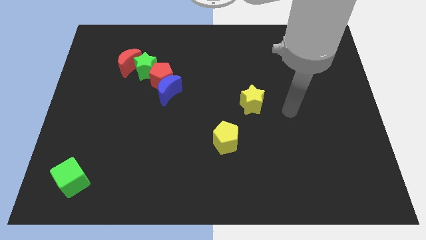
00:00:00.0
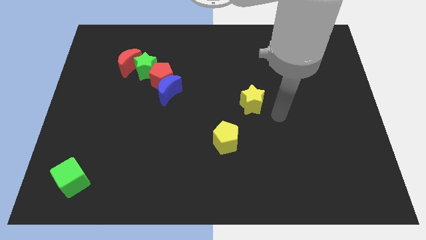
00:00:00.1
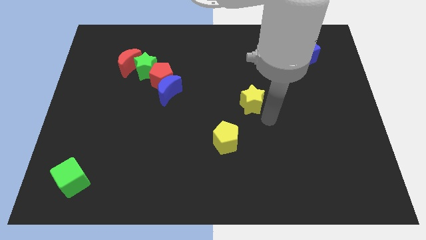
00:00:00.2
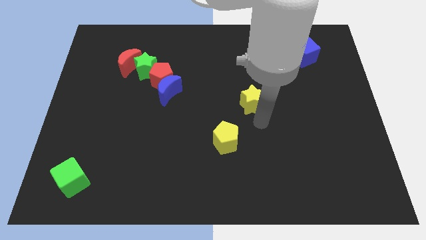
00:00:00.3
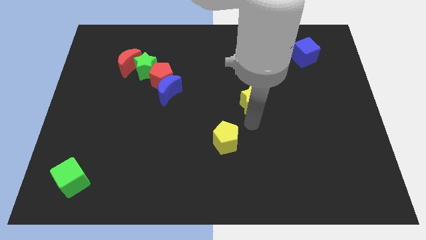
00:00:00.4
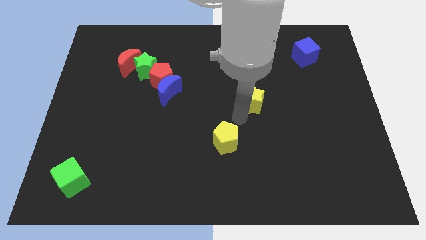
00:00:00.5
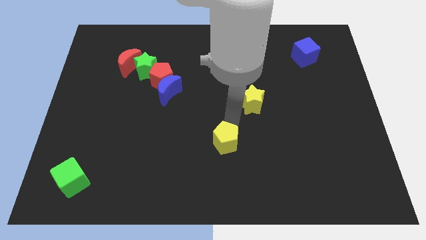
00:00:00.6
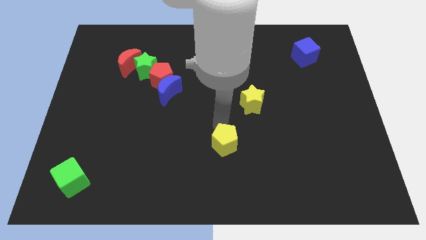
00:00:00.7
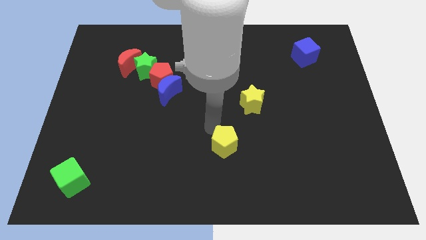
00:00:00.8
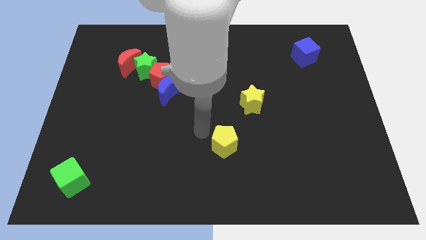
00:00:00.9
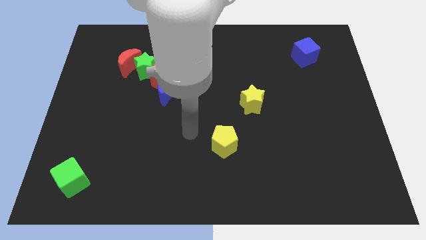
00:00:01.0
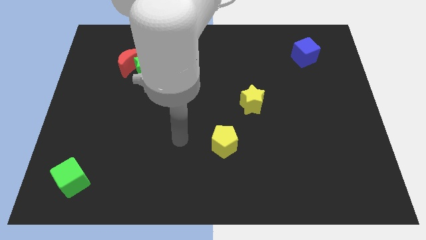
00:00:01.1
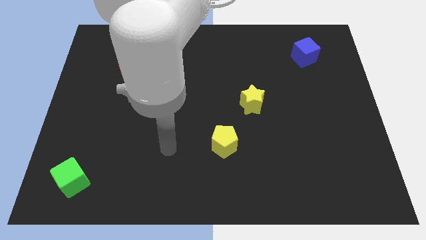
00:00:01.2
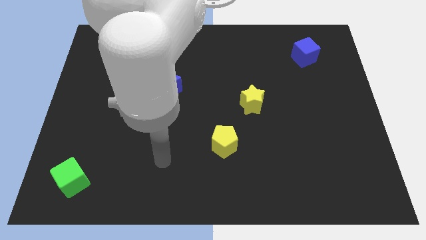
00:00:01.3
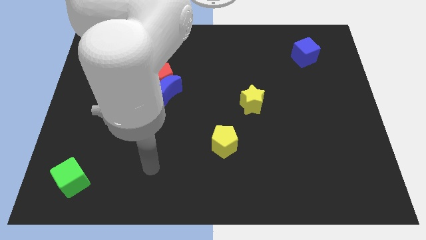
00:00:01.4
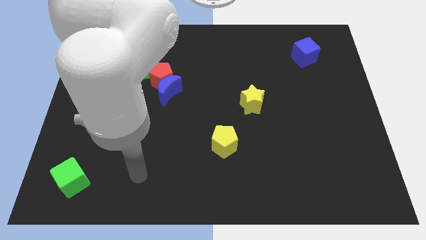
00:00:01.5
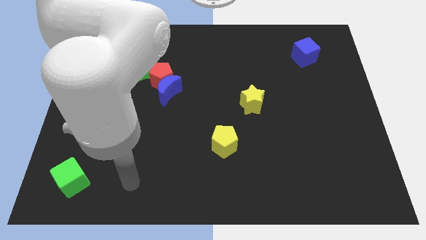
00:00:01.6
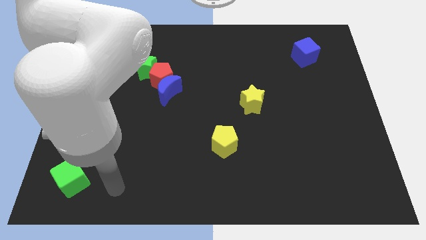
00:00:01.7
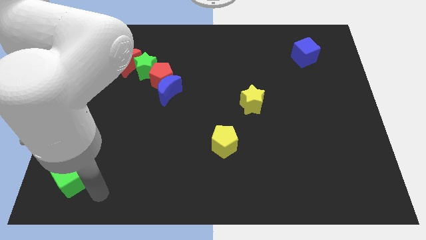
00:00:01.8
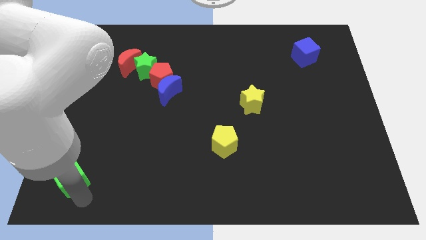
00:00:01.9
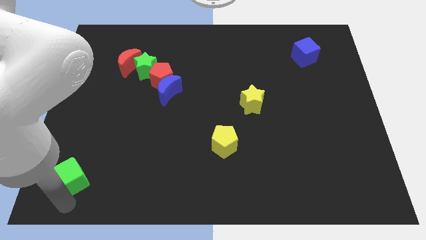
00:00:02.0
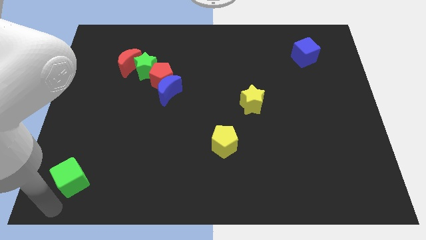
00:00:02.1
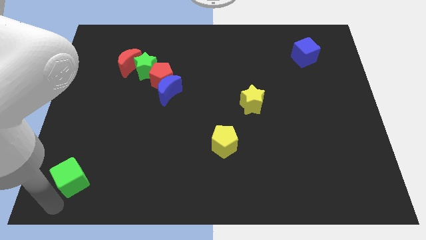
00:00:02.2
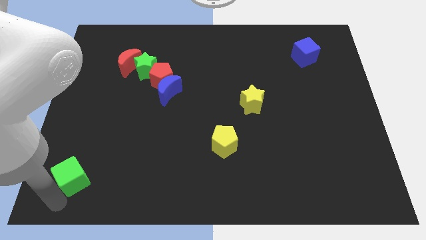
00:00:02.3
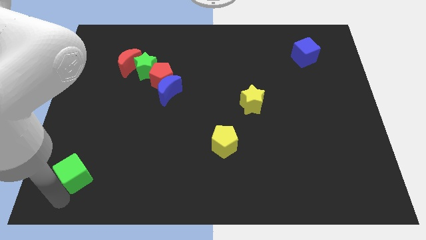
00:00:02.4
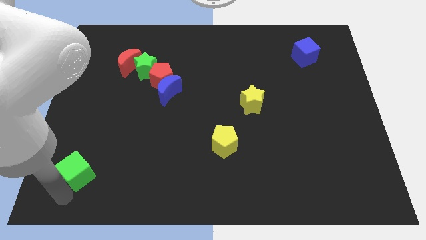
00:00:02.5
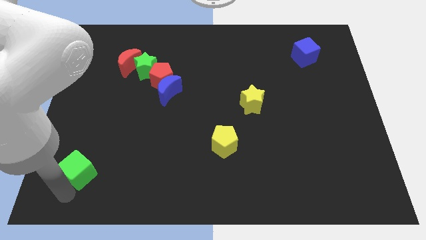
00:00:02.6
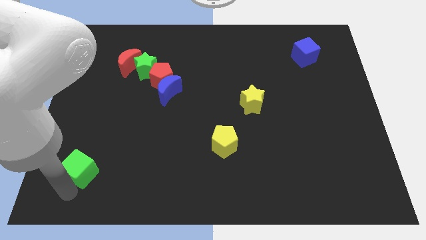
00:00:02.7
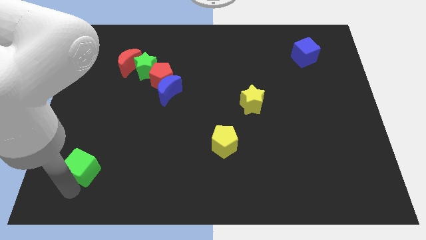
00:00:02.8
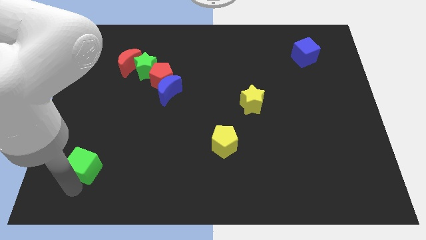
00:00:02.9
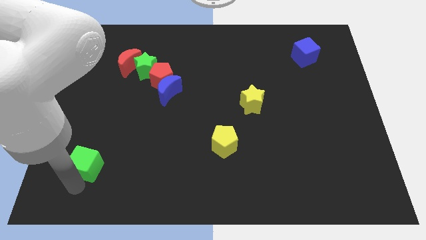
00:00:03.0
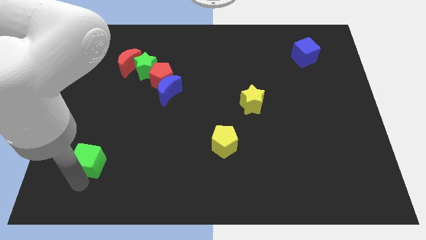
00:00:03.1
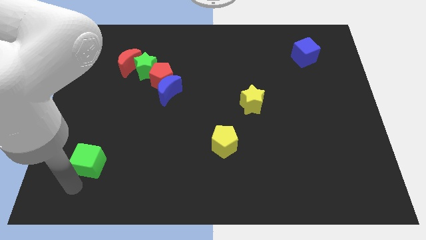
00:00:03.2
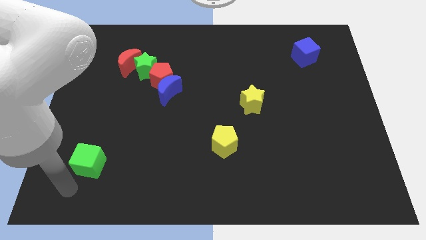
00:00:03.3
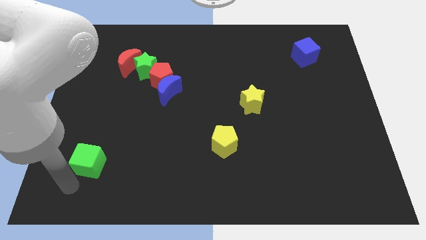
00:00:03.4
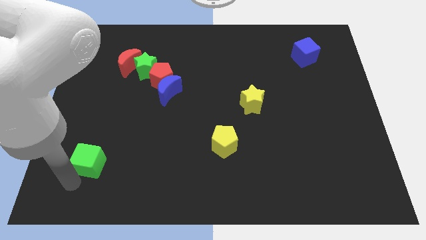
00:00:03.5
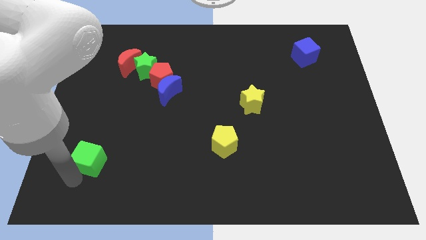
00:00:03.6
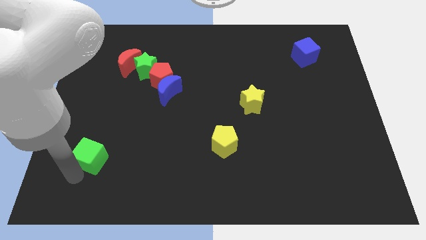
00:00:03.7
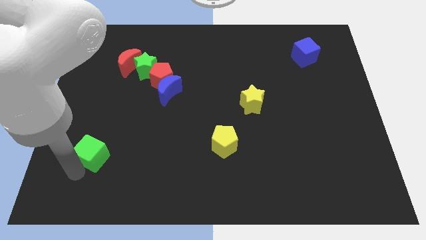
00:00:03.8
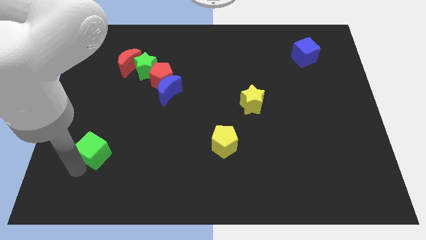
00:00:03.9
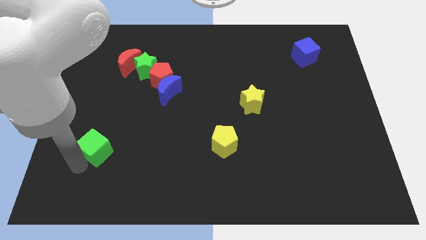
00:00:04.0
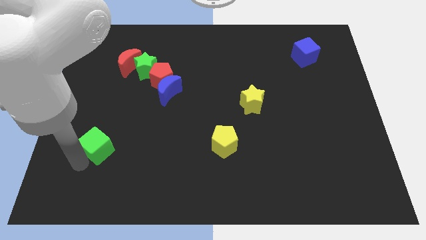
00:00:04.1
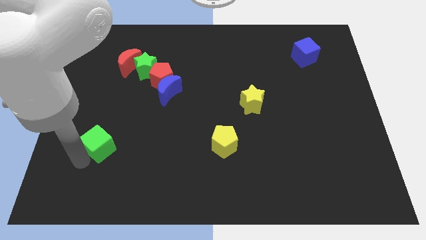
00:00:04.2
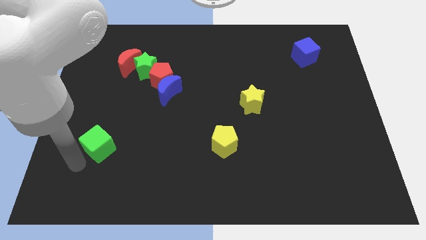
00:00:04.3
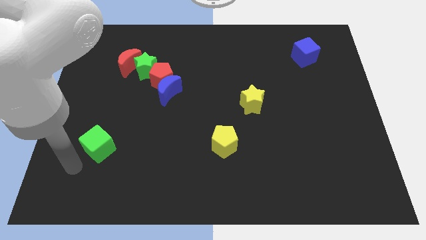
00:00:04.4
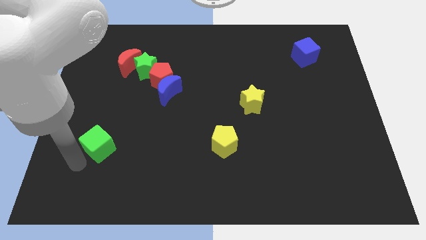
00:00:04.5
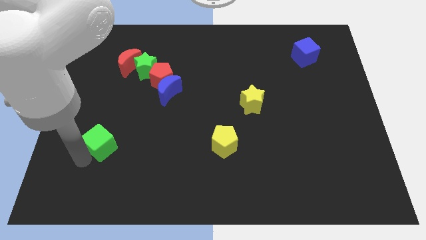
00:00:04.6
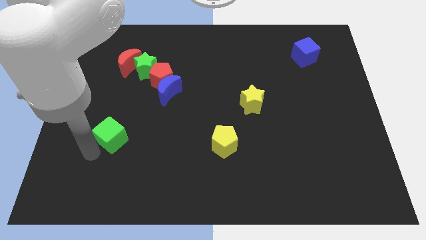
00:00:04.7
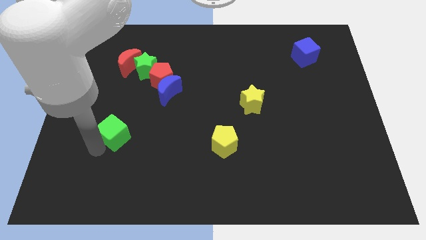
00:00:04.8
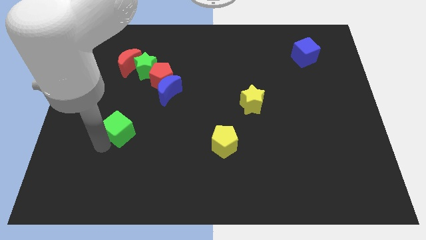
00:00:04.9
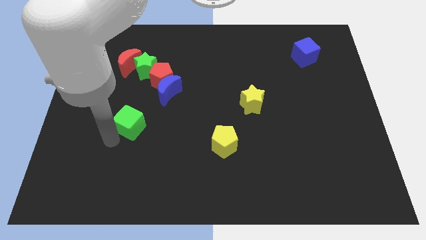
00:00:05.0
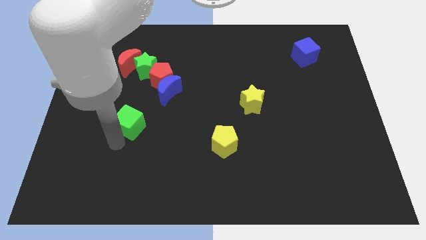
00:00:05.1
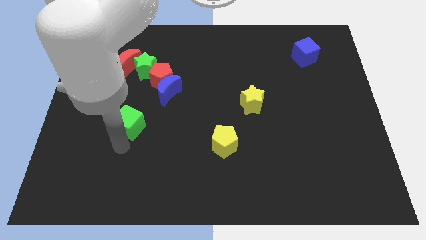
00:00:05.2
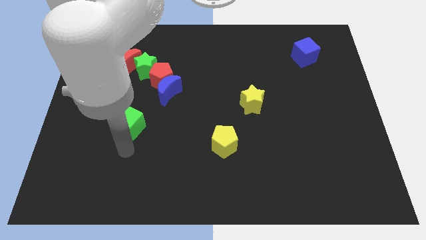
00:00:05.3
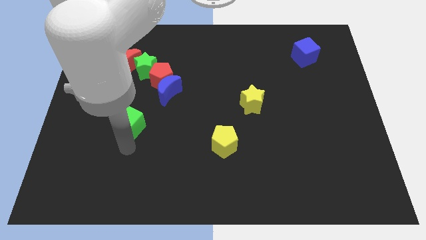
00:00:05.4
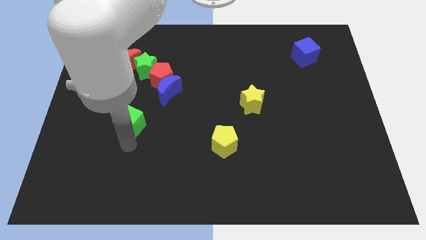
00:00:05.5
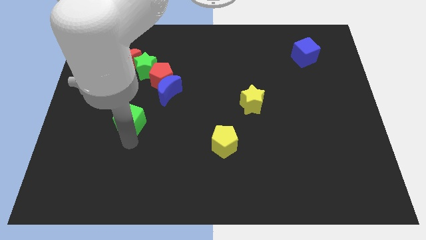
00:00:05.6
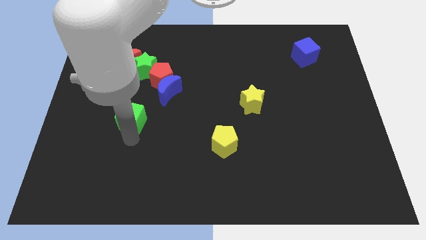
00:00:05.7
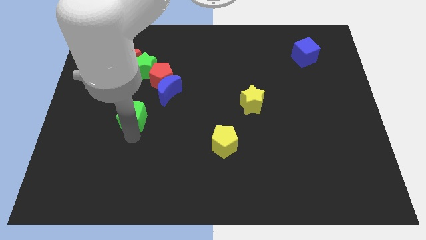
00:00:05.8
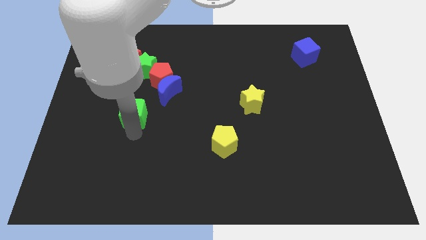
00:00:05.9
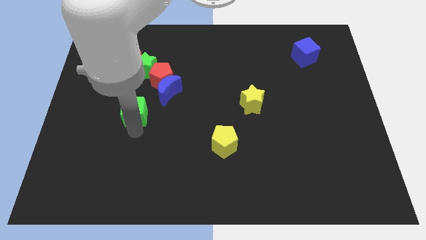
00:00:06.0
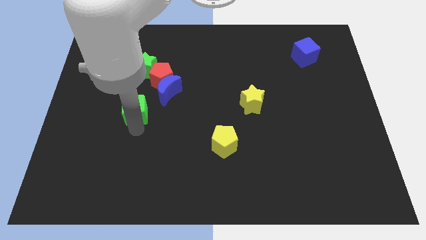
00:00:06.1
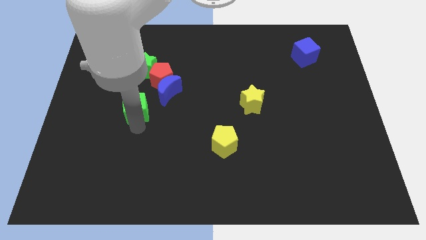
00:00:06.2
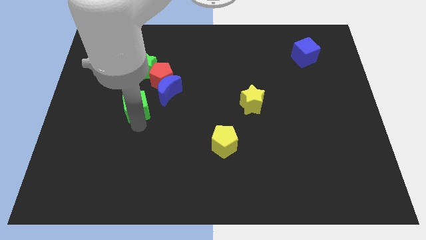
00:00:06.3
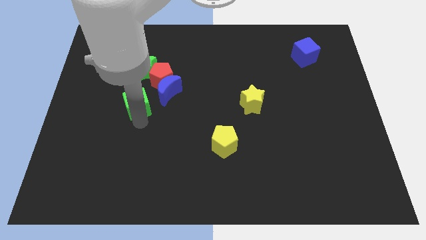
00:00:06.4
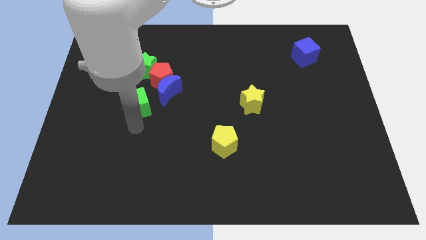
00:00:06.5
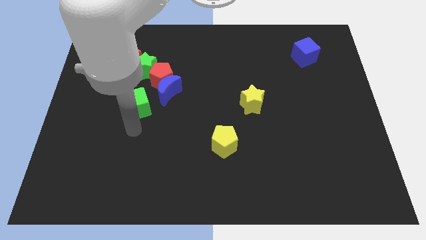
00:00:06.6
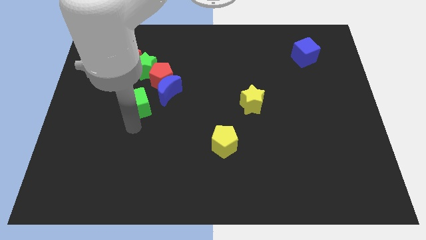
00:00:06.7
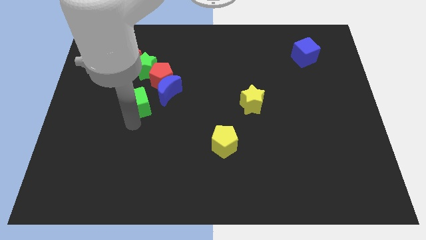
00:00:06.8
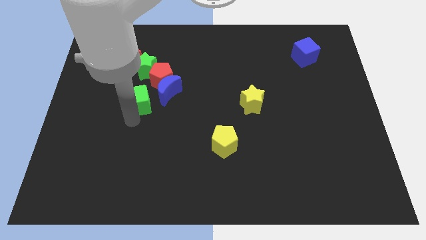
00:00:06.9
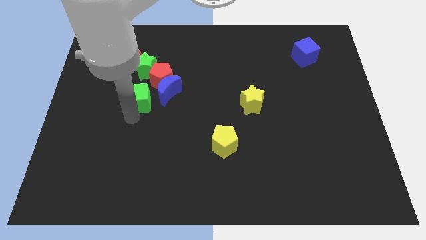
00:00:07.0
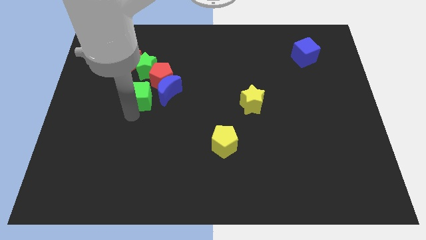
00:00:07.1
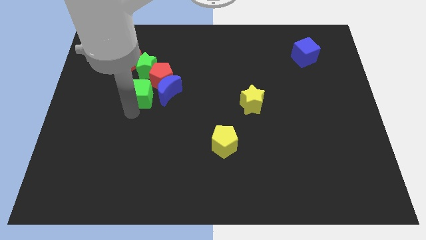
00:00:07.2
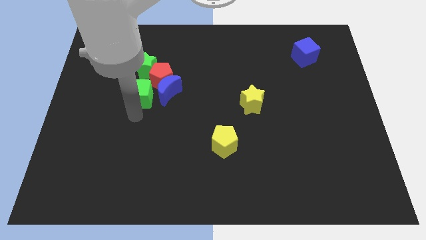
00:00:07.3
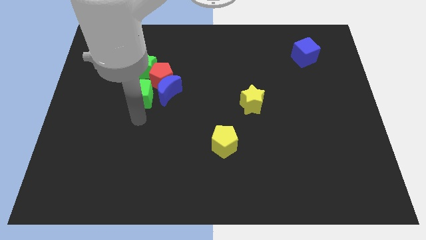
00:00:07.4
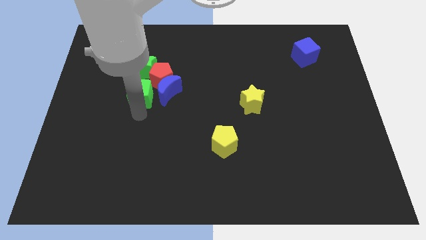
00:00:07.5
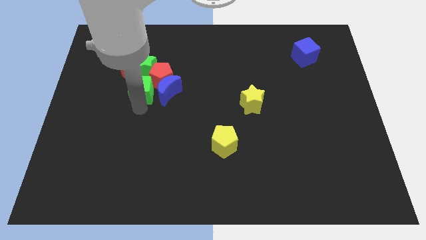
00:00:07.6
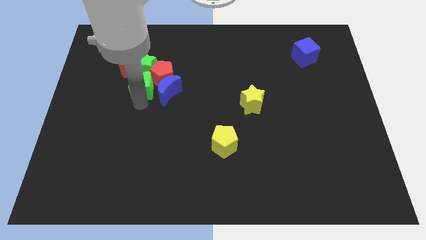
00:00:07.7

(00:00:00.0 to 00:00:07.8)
move the green cube next to the green star

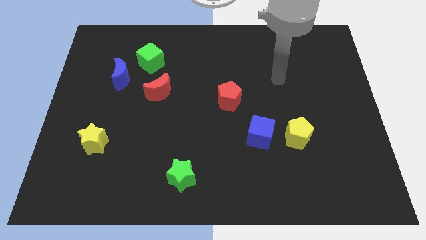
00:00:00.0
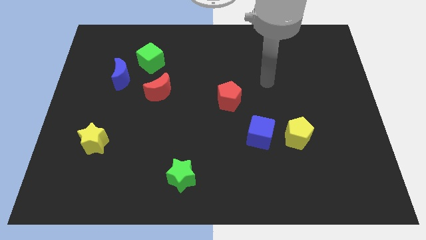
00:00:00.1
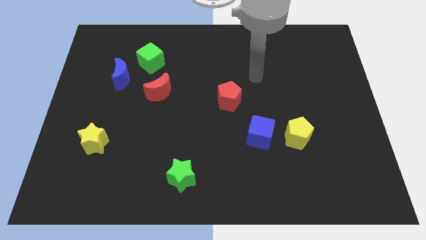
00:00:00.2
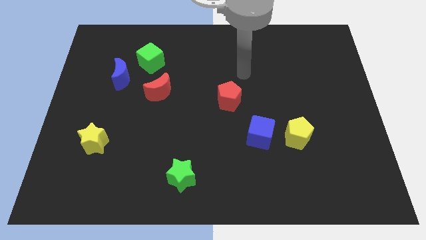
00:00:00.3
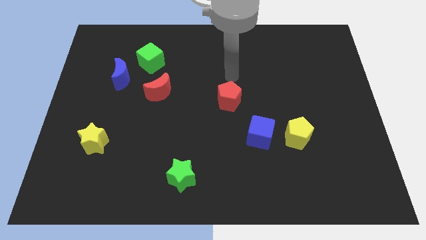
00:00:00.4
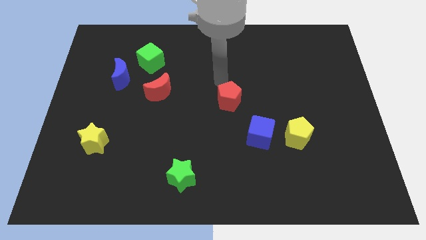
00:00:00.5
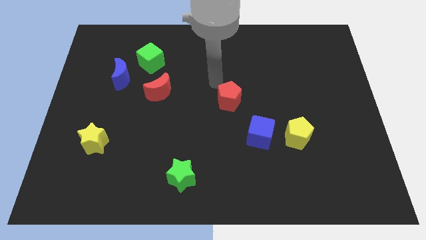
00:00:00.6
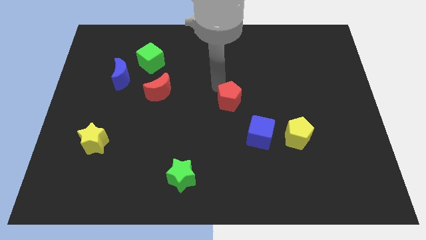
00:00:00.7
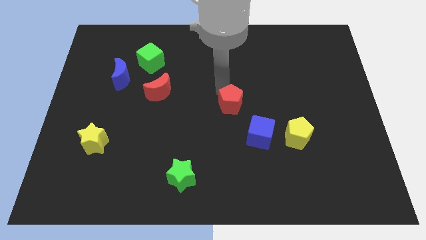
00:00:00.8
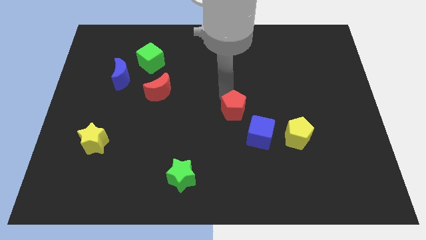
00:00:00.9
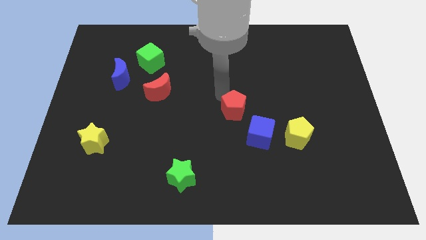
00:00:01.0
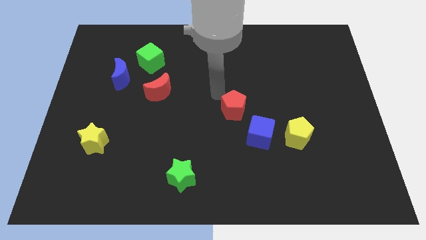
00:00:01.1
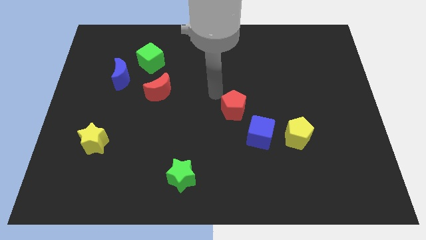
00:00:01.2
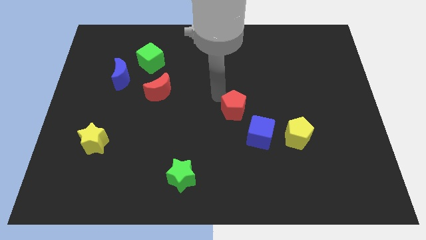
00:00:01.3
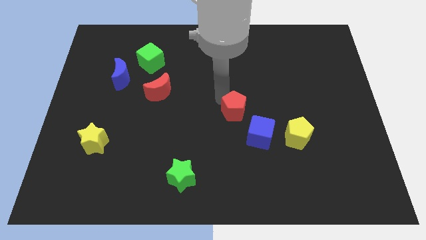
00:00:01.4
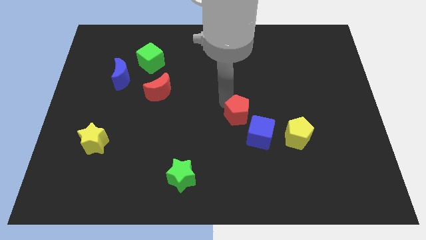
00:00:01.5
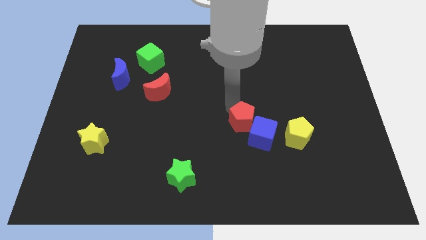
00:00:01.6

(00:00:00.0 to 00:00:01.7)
push the red pentagon close to the blue cube
